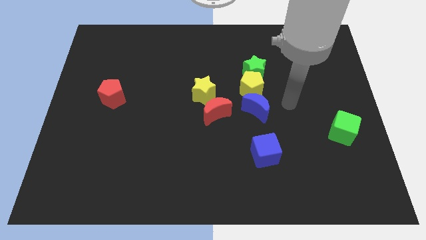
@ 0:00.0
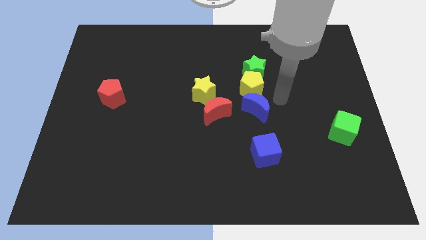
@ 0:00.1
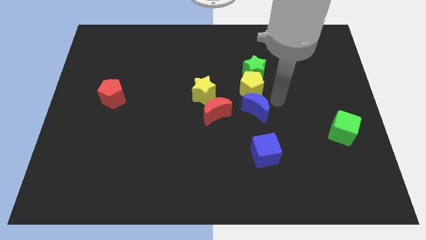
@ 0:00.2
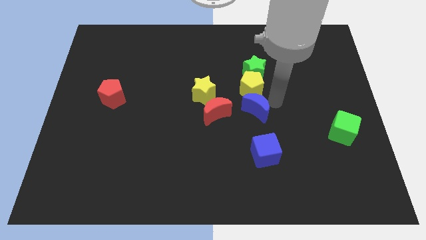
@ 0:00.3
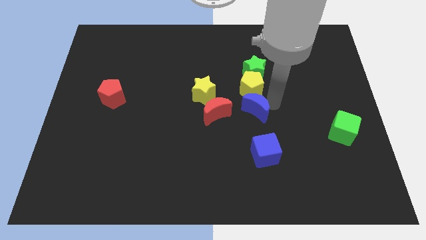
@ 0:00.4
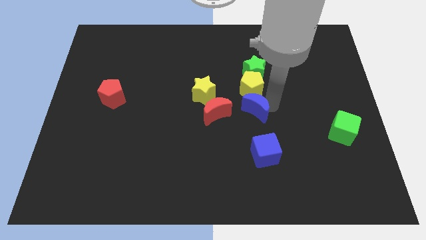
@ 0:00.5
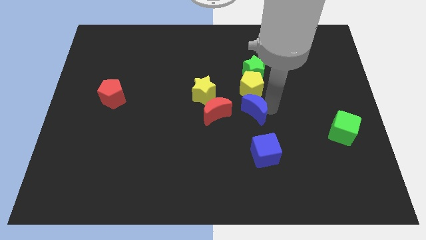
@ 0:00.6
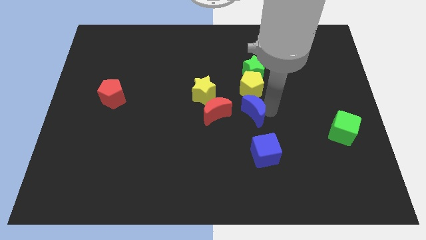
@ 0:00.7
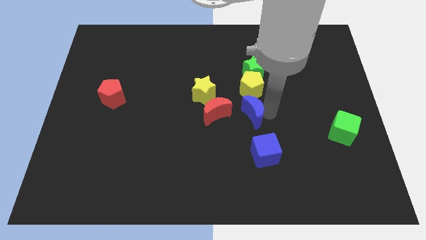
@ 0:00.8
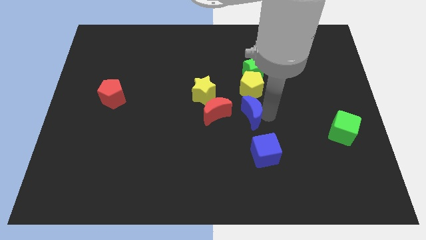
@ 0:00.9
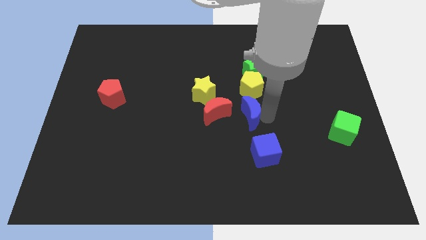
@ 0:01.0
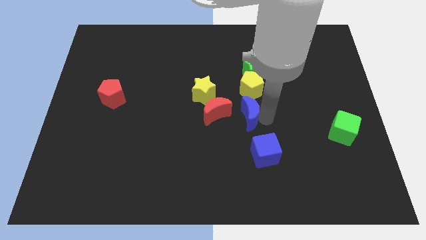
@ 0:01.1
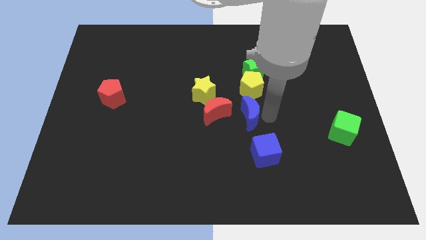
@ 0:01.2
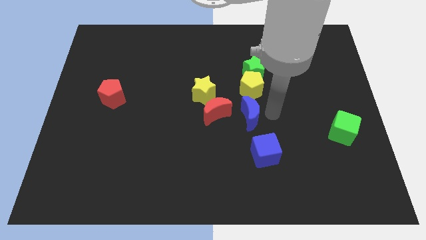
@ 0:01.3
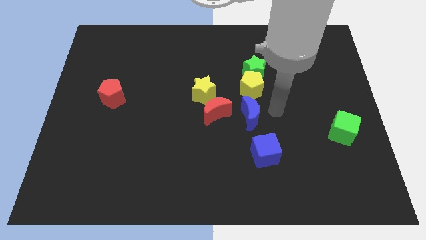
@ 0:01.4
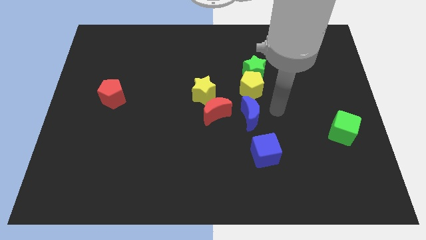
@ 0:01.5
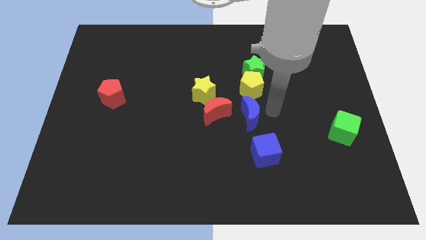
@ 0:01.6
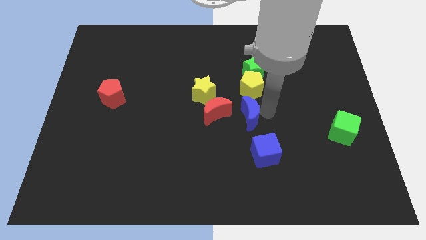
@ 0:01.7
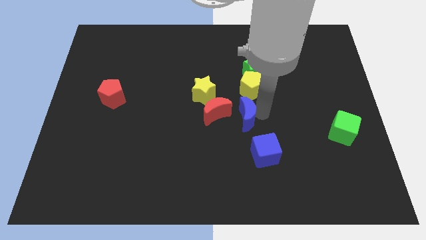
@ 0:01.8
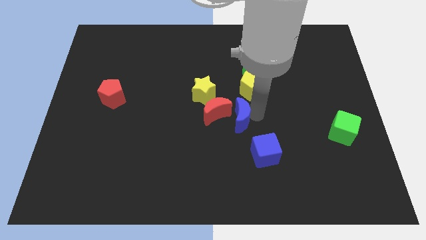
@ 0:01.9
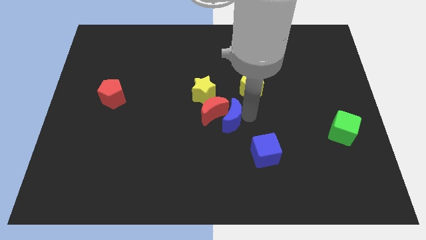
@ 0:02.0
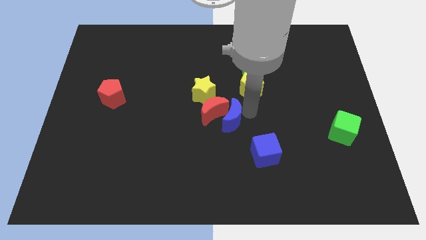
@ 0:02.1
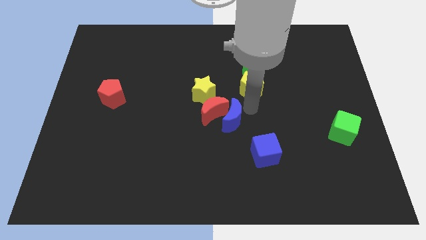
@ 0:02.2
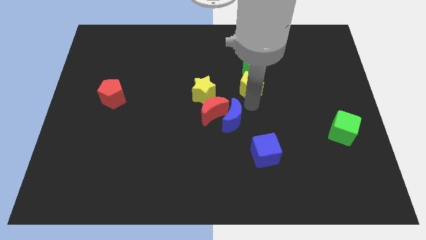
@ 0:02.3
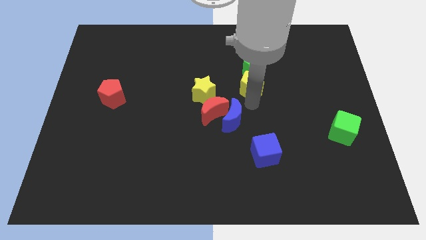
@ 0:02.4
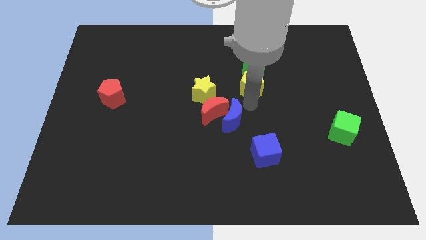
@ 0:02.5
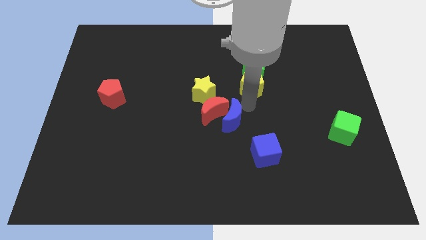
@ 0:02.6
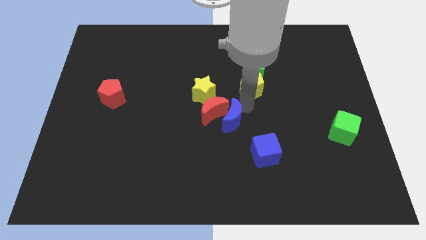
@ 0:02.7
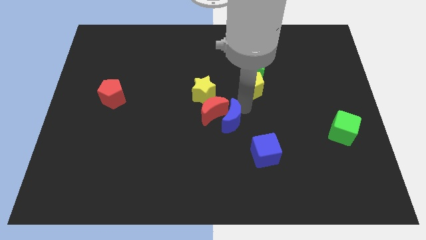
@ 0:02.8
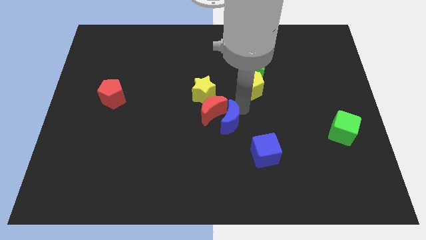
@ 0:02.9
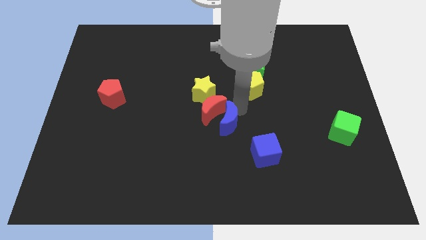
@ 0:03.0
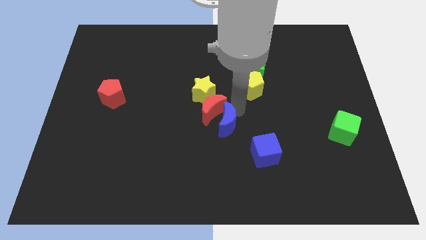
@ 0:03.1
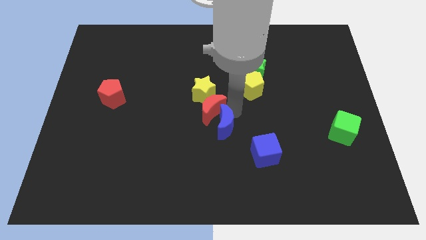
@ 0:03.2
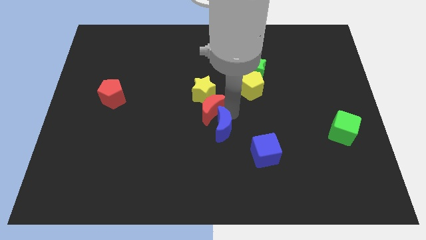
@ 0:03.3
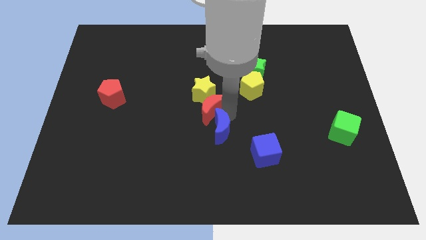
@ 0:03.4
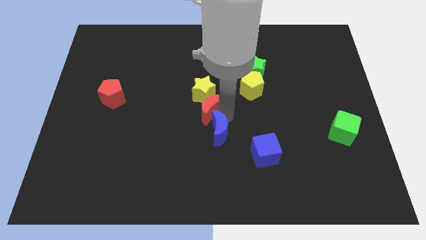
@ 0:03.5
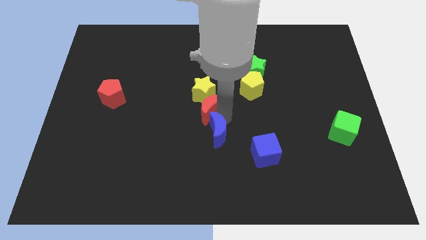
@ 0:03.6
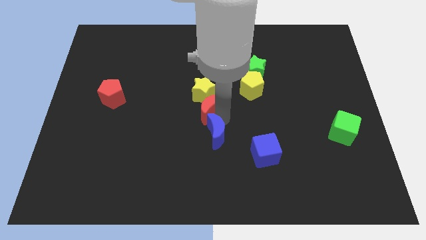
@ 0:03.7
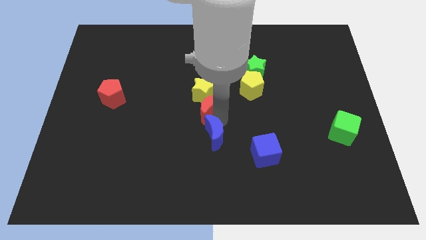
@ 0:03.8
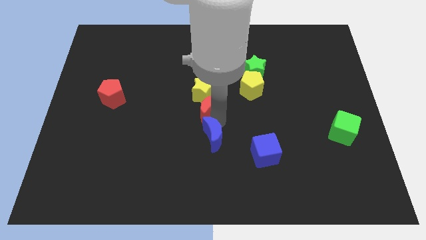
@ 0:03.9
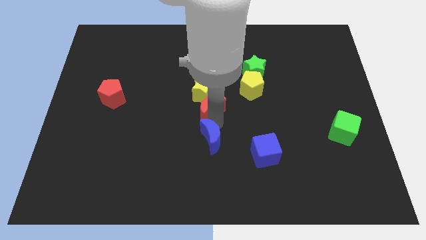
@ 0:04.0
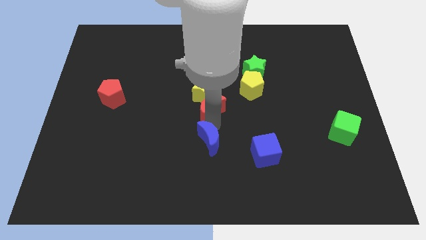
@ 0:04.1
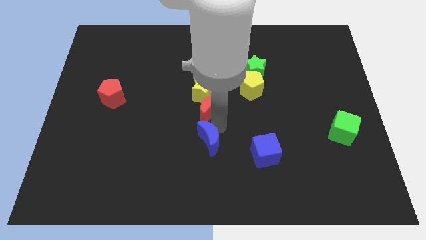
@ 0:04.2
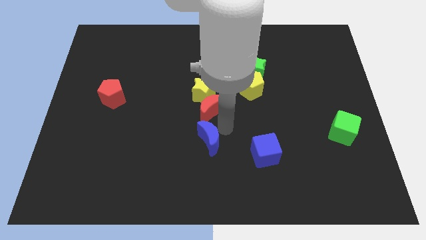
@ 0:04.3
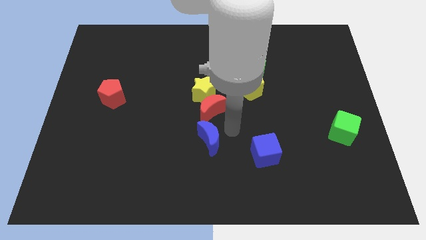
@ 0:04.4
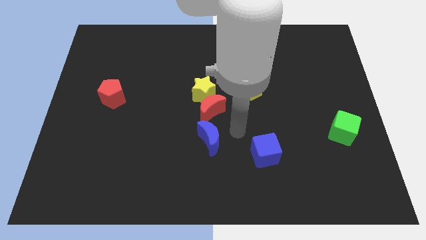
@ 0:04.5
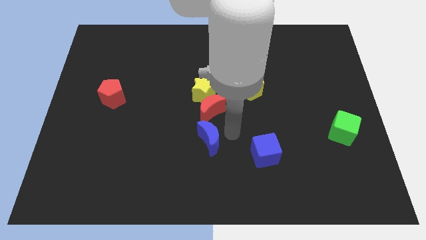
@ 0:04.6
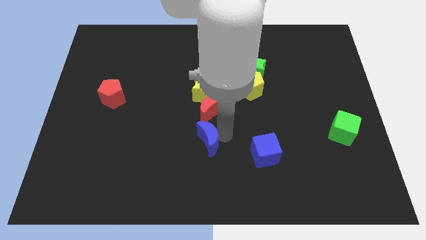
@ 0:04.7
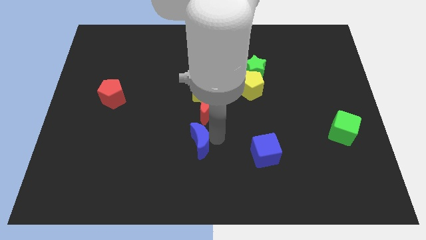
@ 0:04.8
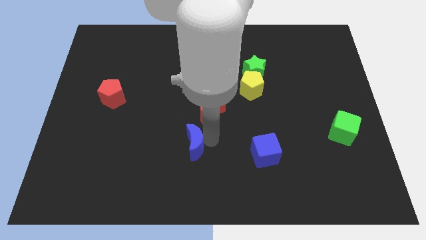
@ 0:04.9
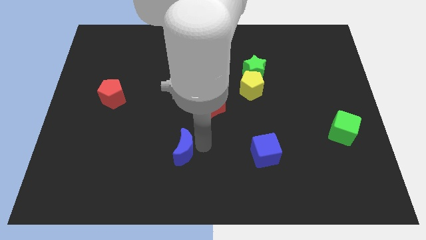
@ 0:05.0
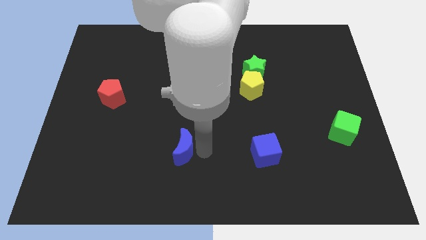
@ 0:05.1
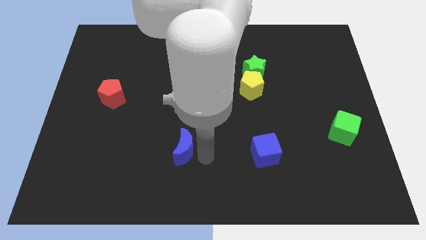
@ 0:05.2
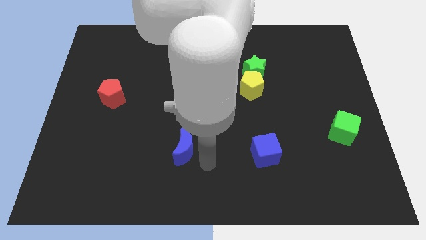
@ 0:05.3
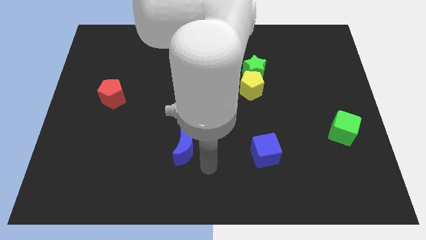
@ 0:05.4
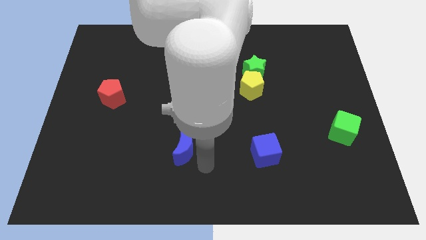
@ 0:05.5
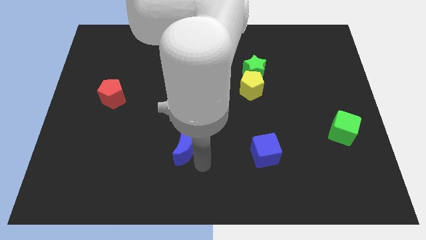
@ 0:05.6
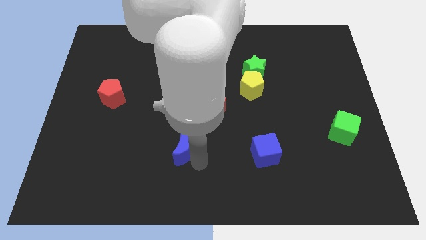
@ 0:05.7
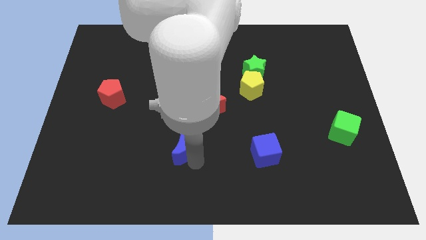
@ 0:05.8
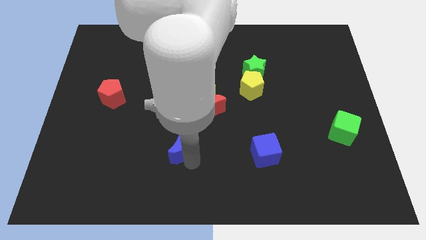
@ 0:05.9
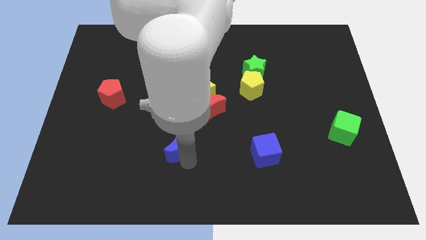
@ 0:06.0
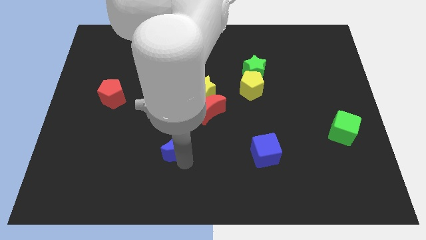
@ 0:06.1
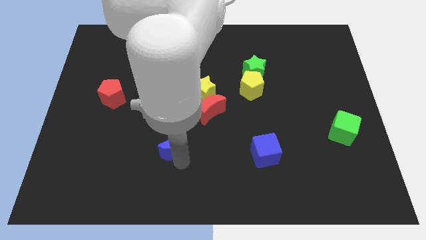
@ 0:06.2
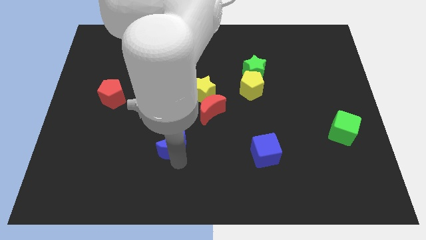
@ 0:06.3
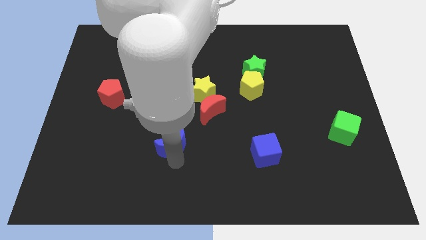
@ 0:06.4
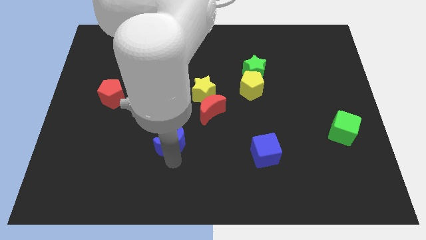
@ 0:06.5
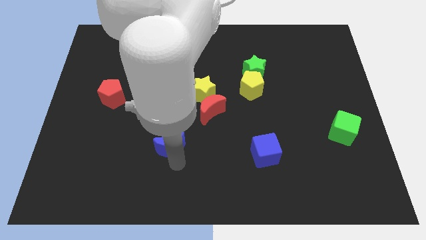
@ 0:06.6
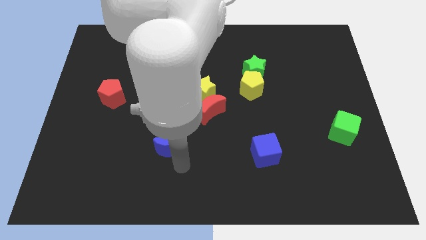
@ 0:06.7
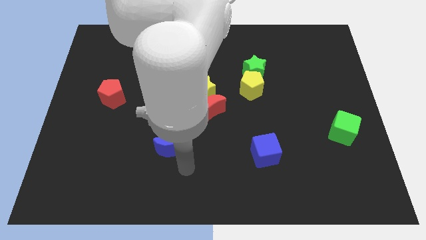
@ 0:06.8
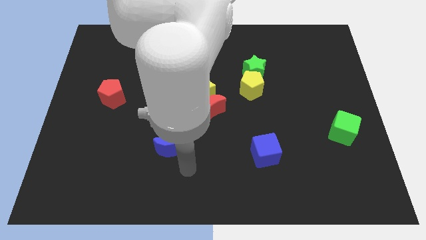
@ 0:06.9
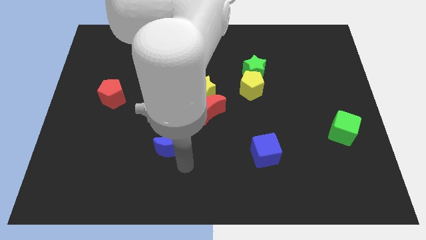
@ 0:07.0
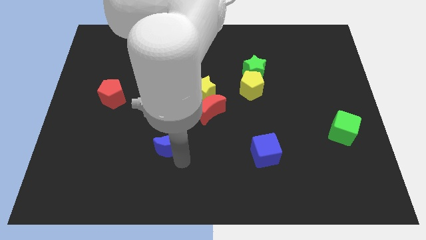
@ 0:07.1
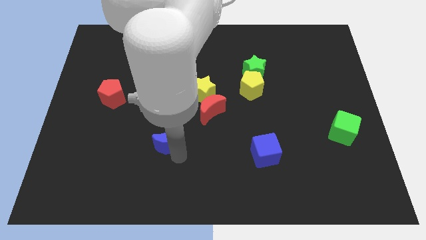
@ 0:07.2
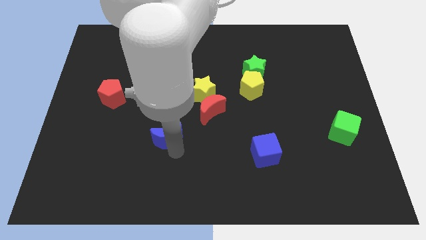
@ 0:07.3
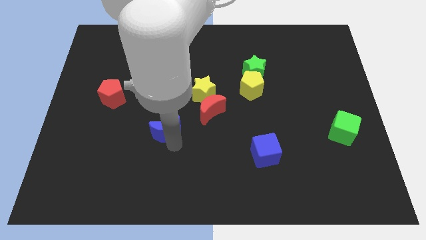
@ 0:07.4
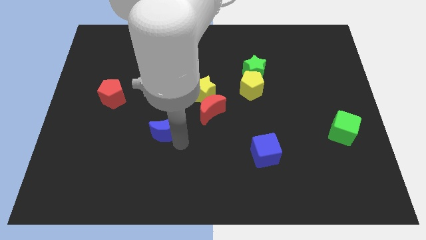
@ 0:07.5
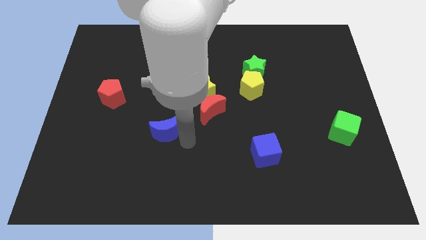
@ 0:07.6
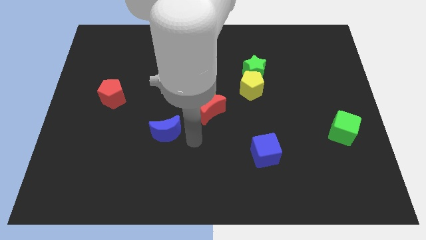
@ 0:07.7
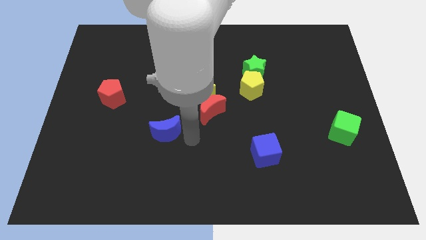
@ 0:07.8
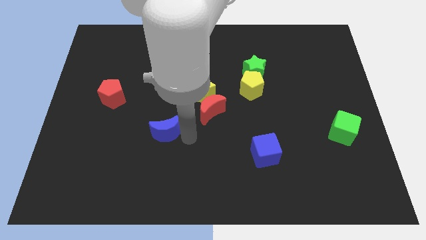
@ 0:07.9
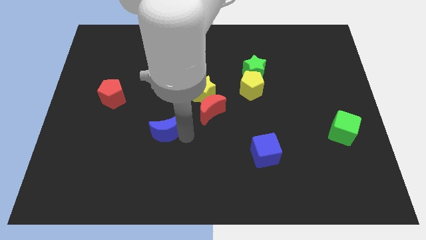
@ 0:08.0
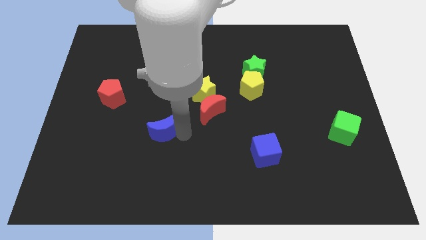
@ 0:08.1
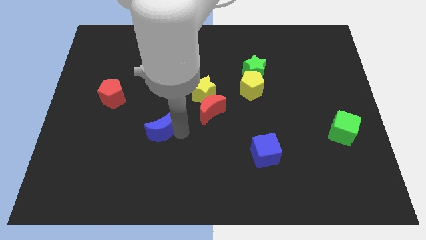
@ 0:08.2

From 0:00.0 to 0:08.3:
slide the blue moon to the left

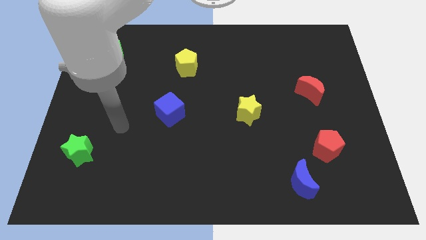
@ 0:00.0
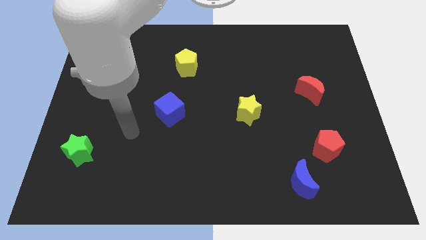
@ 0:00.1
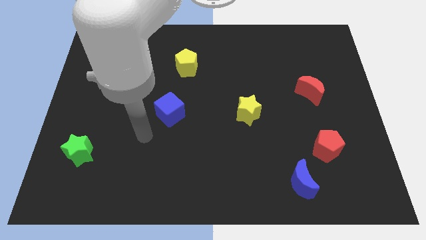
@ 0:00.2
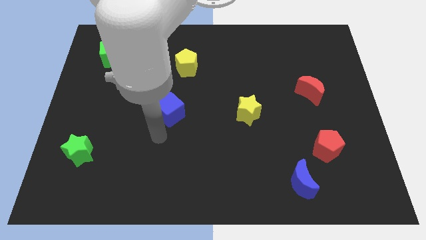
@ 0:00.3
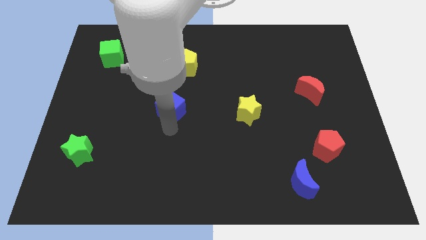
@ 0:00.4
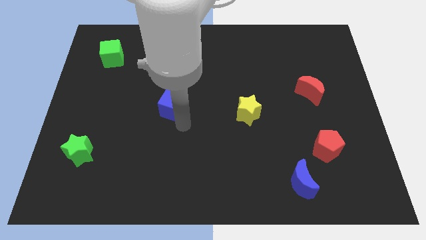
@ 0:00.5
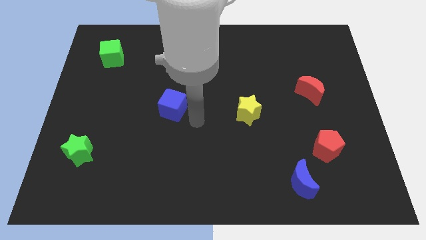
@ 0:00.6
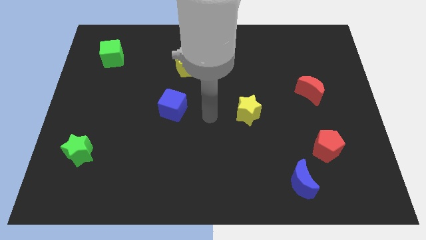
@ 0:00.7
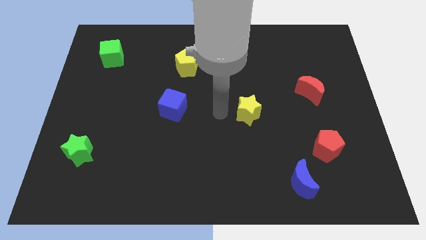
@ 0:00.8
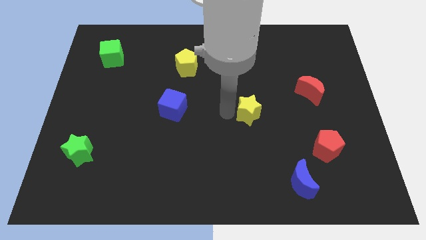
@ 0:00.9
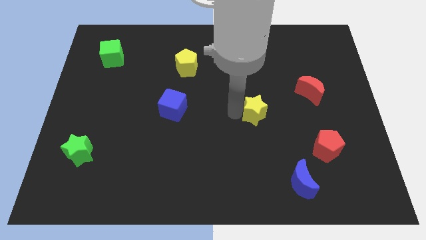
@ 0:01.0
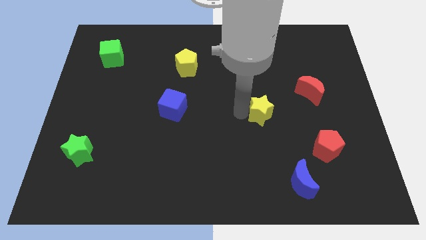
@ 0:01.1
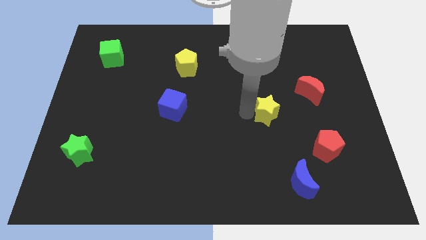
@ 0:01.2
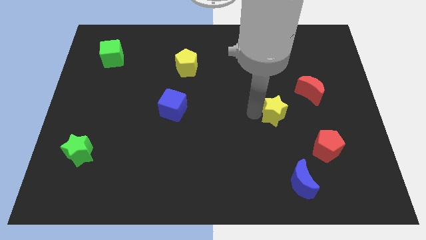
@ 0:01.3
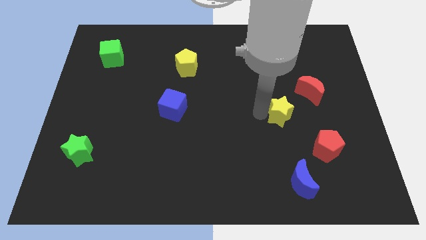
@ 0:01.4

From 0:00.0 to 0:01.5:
slightly push the yellow star right
